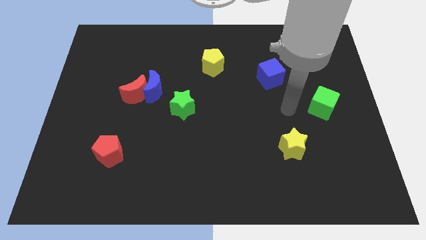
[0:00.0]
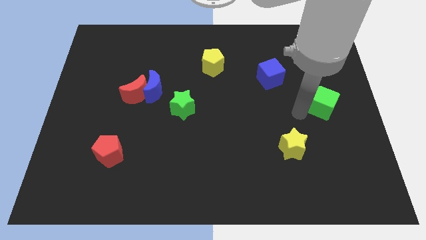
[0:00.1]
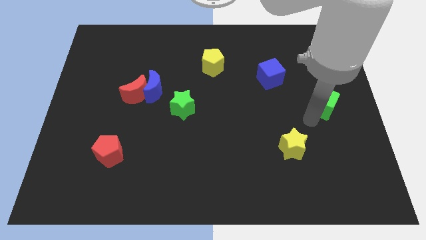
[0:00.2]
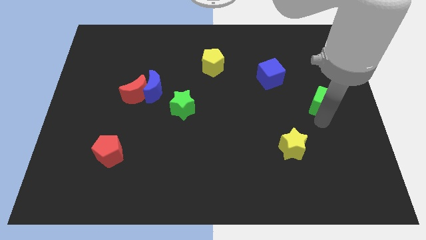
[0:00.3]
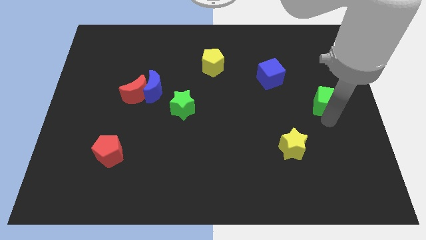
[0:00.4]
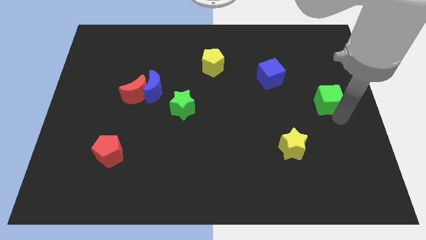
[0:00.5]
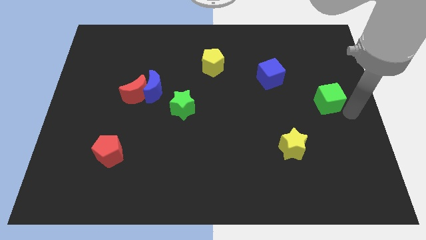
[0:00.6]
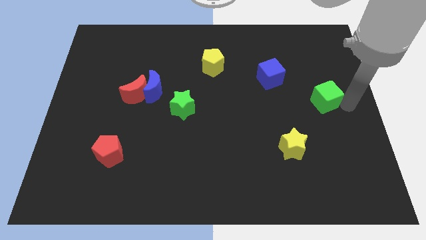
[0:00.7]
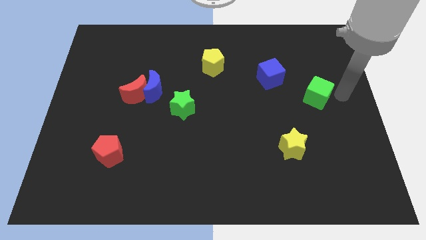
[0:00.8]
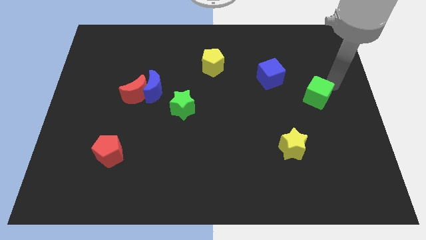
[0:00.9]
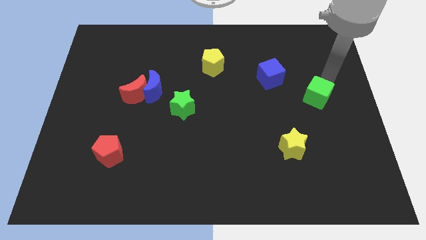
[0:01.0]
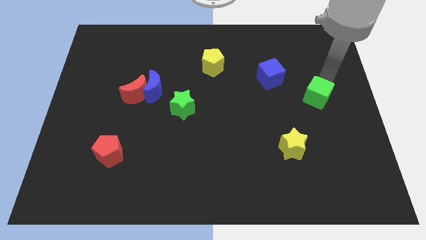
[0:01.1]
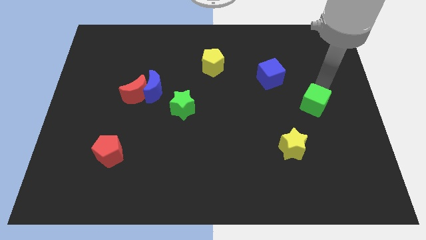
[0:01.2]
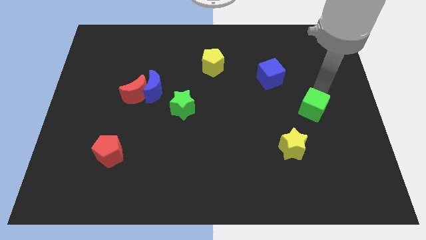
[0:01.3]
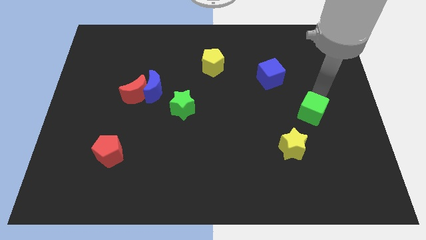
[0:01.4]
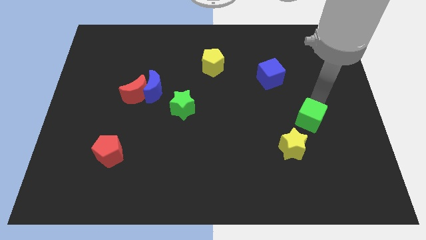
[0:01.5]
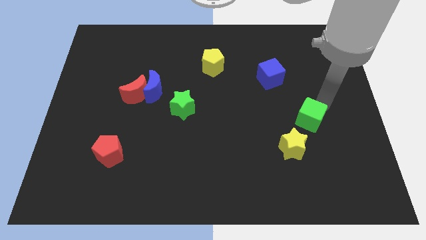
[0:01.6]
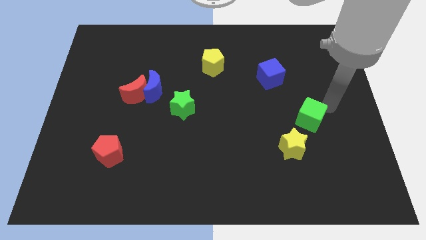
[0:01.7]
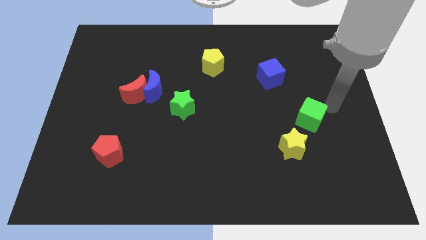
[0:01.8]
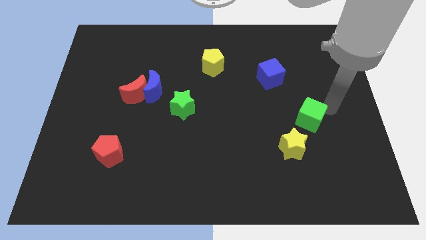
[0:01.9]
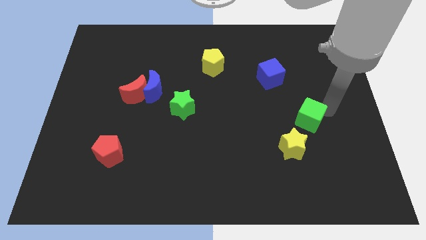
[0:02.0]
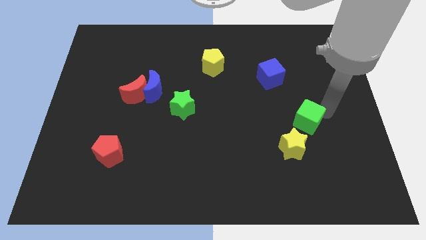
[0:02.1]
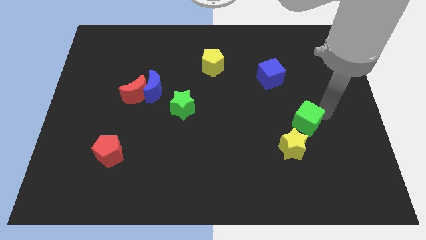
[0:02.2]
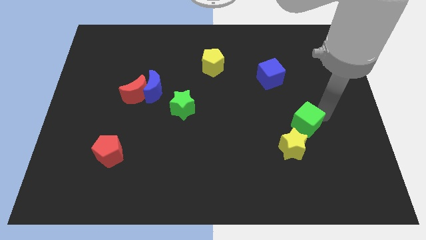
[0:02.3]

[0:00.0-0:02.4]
push the green cube a little downwards and then left

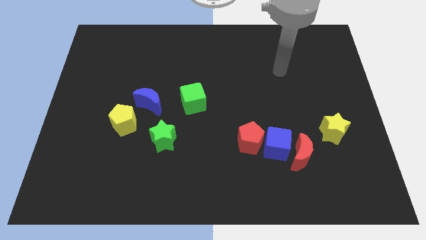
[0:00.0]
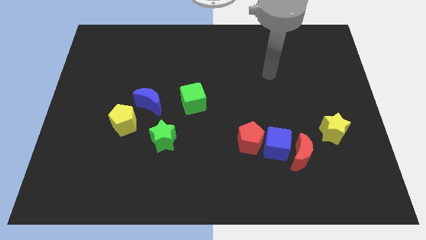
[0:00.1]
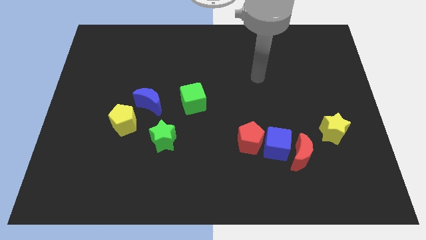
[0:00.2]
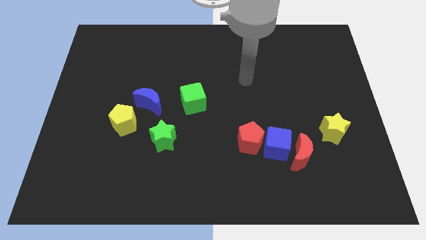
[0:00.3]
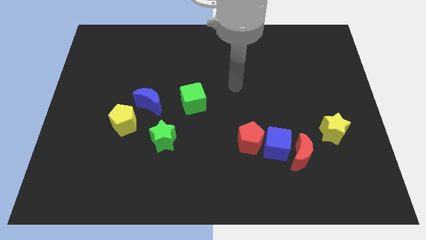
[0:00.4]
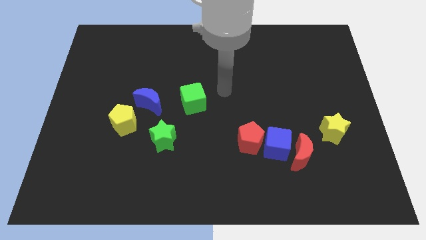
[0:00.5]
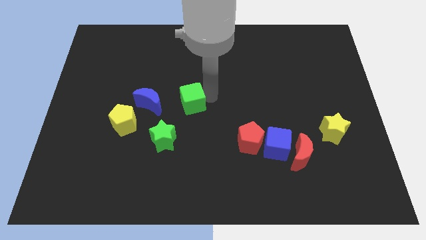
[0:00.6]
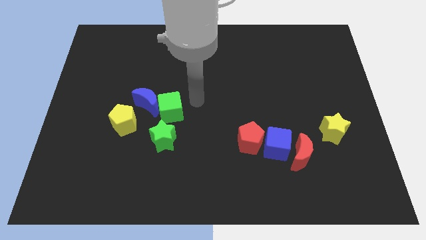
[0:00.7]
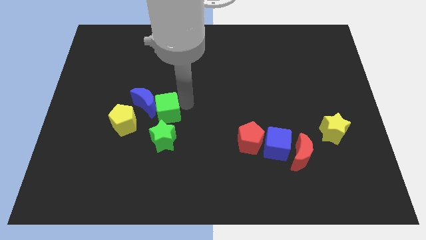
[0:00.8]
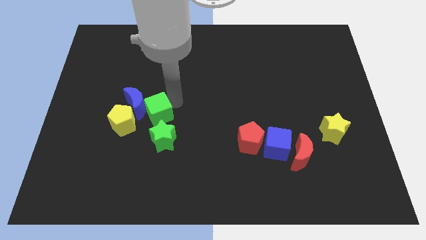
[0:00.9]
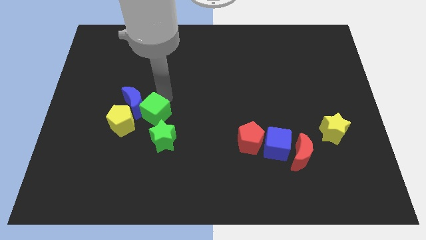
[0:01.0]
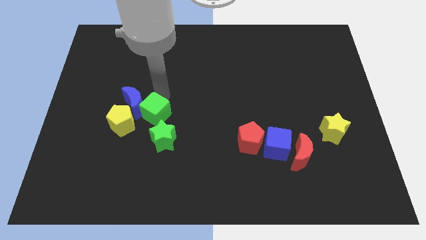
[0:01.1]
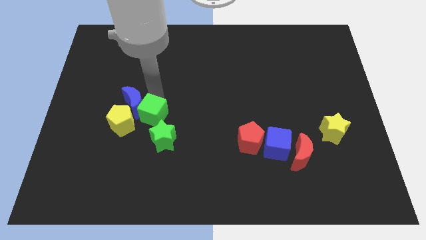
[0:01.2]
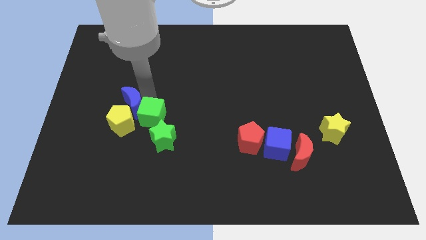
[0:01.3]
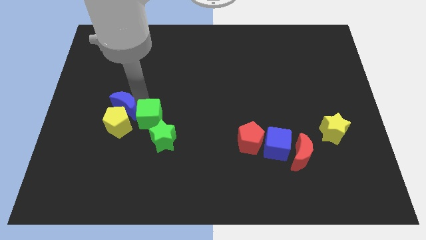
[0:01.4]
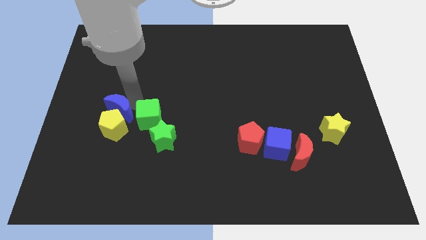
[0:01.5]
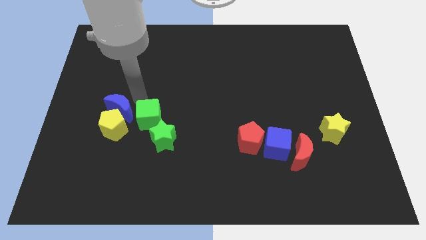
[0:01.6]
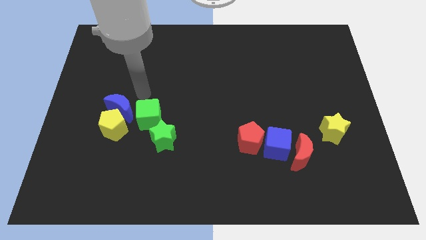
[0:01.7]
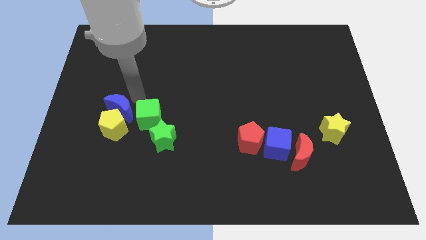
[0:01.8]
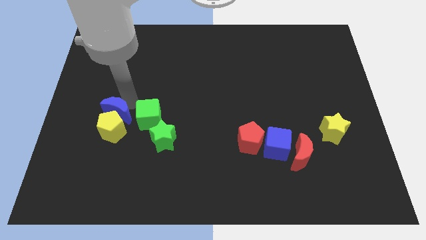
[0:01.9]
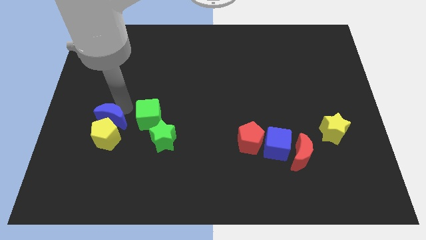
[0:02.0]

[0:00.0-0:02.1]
slightly move the blue moon diagonally down and to the left

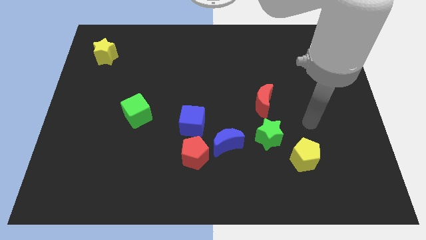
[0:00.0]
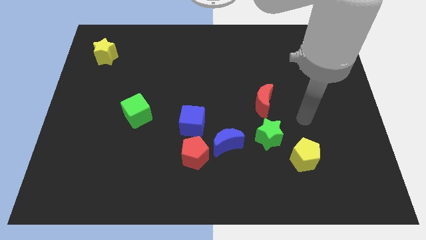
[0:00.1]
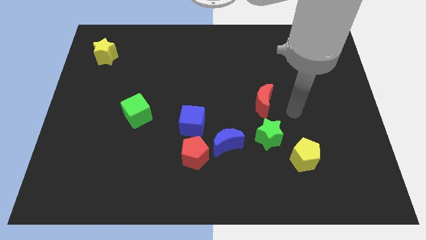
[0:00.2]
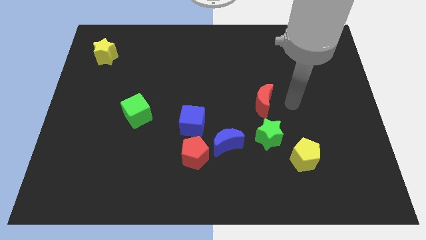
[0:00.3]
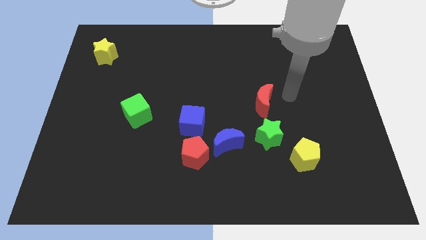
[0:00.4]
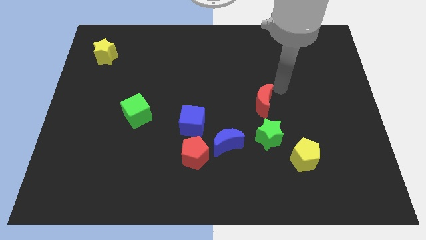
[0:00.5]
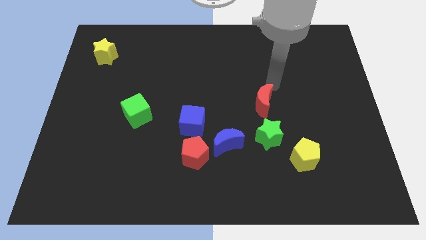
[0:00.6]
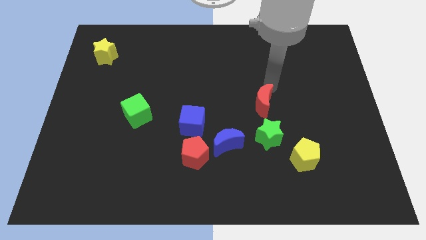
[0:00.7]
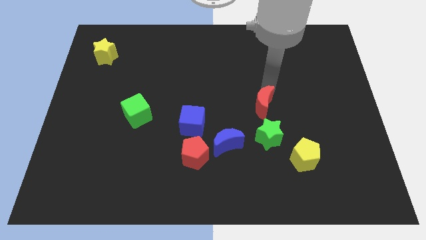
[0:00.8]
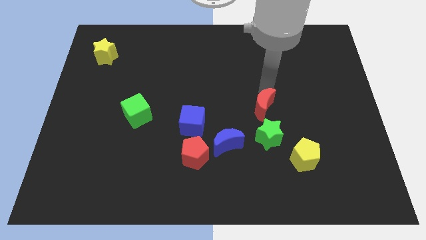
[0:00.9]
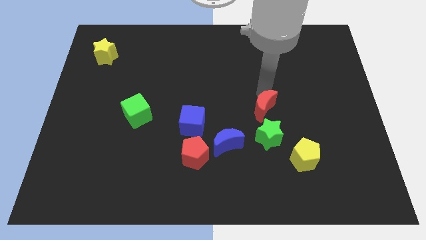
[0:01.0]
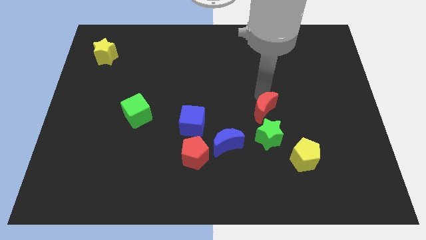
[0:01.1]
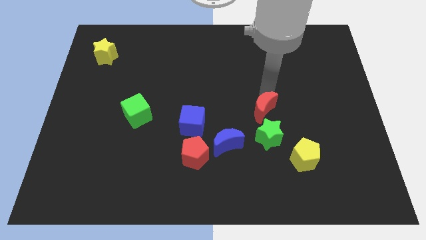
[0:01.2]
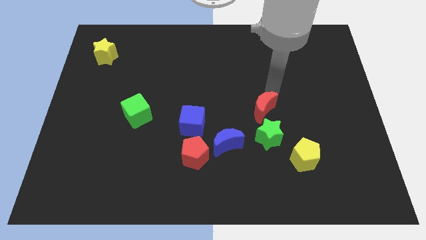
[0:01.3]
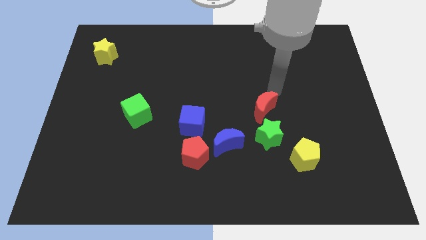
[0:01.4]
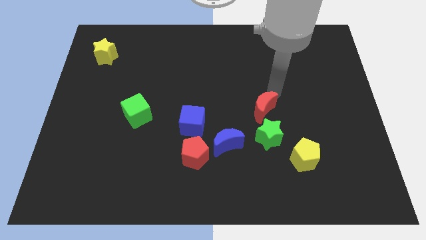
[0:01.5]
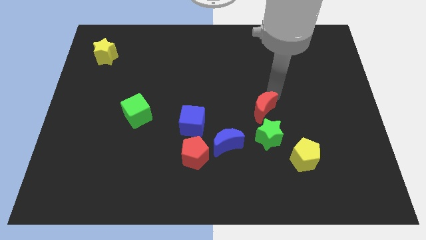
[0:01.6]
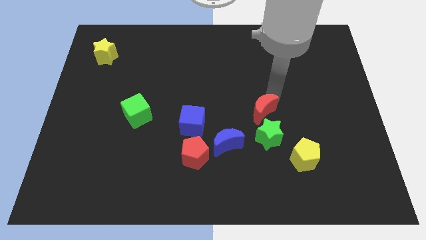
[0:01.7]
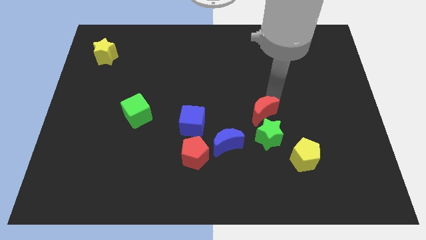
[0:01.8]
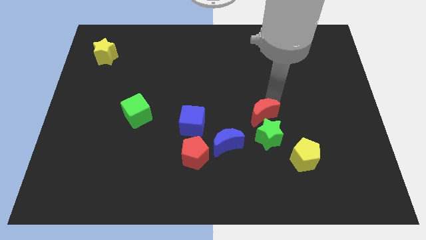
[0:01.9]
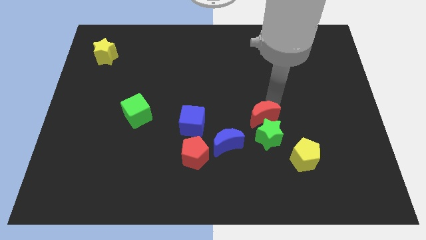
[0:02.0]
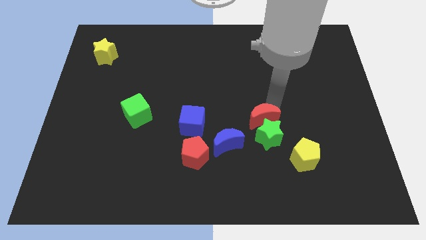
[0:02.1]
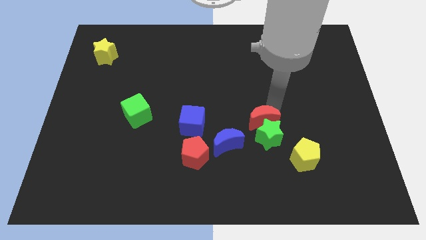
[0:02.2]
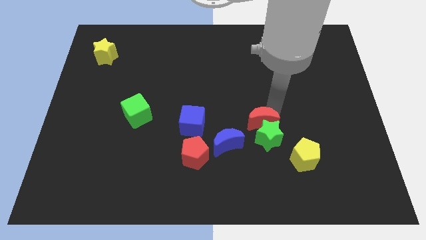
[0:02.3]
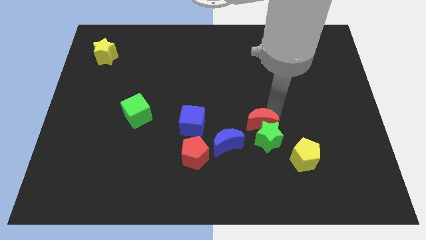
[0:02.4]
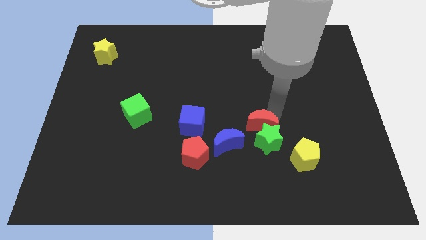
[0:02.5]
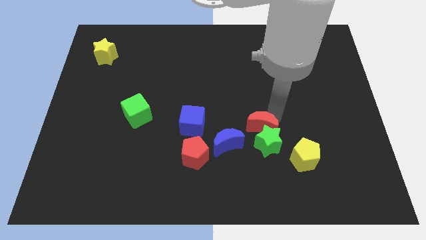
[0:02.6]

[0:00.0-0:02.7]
slightly move the red moon downwards

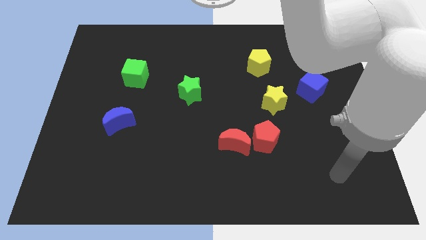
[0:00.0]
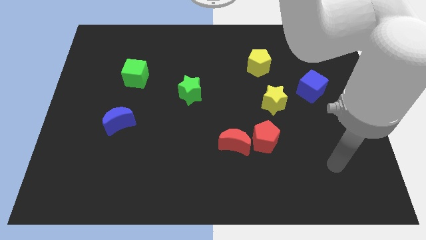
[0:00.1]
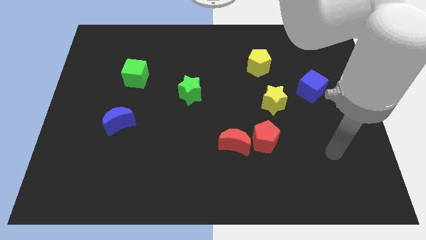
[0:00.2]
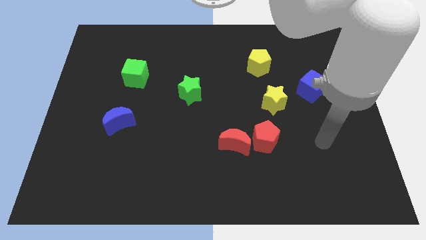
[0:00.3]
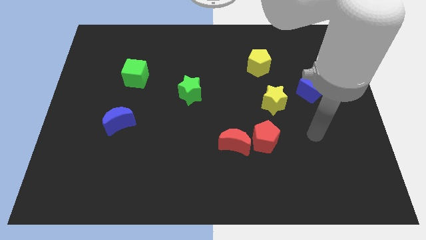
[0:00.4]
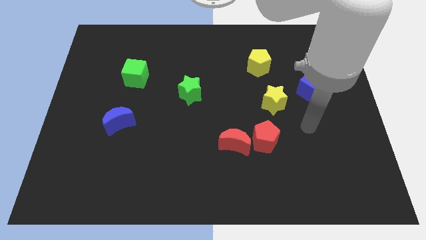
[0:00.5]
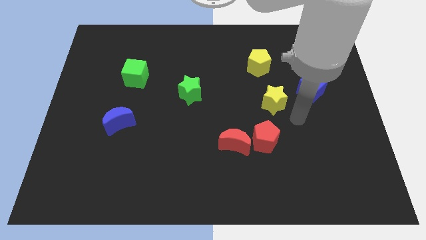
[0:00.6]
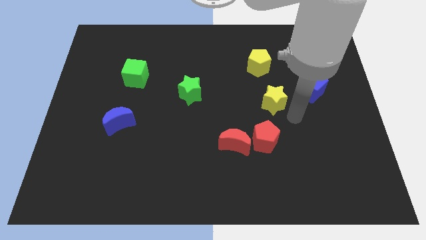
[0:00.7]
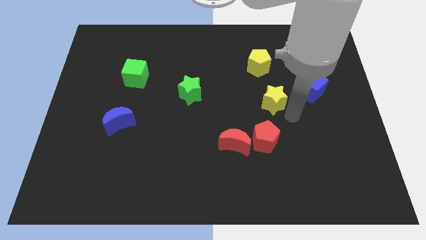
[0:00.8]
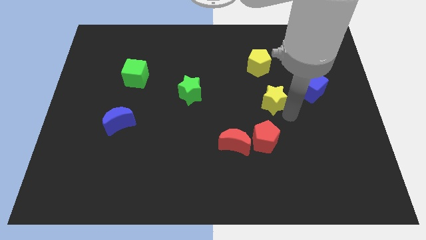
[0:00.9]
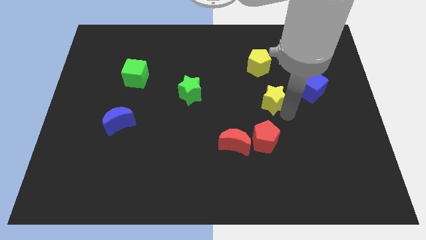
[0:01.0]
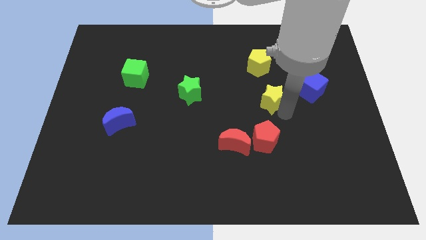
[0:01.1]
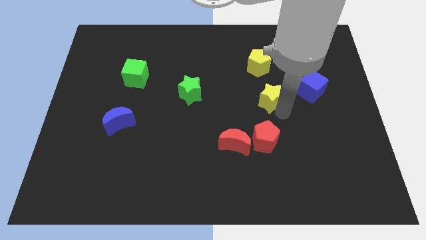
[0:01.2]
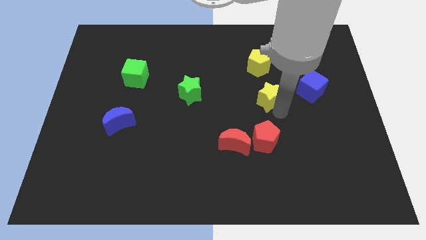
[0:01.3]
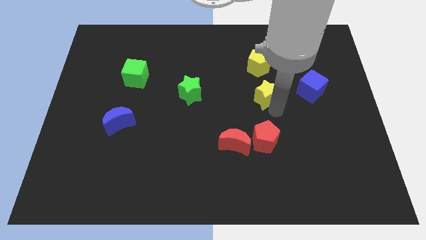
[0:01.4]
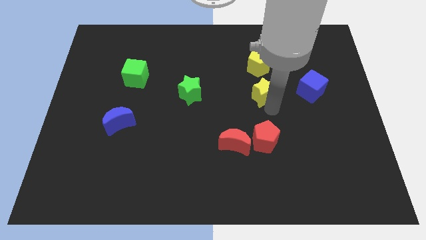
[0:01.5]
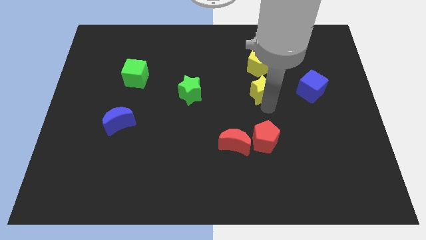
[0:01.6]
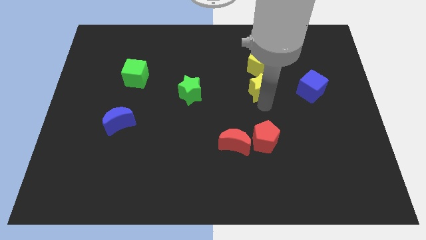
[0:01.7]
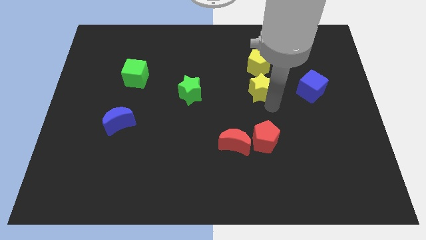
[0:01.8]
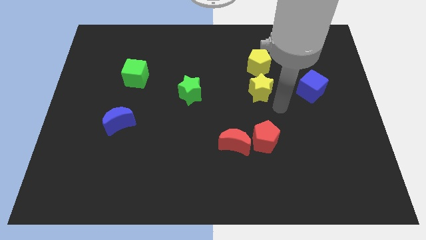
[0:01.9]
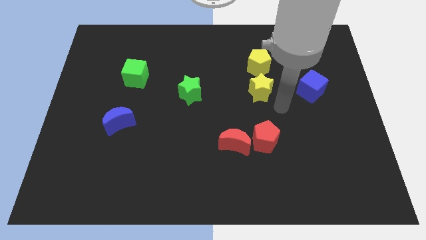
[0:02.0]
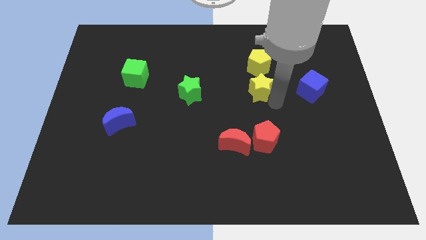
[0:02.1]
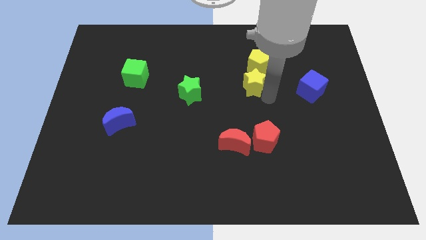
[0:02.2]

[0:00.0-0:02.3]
move the yellow star a little bit upwards and to the left
